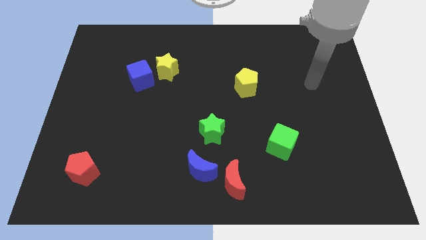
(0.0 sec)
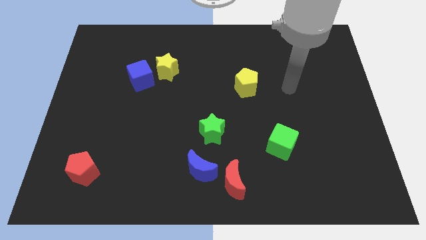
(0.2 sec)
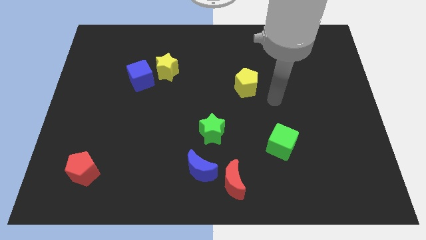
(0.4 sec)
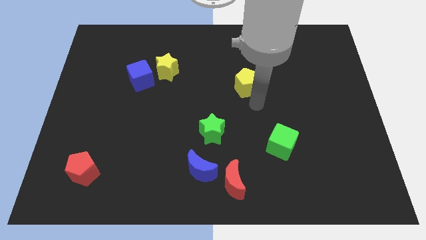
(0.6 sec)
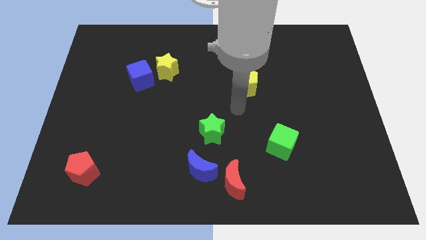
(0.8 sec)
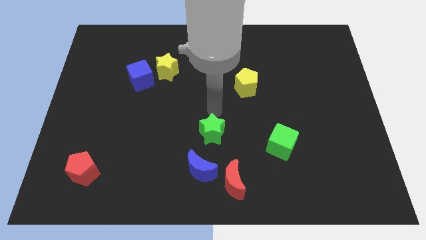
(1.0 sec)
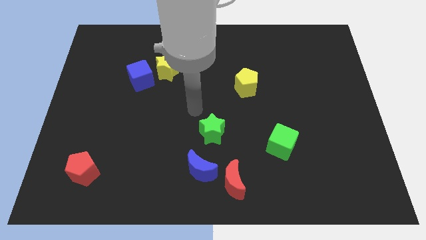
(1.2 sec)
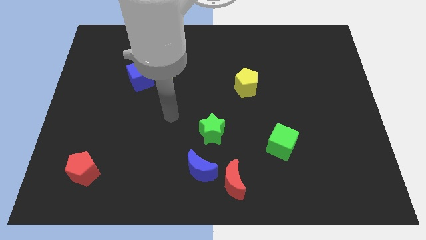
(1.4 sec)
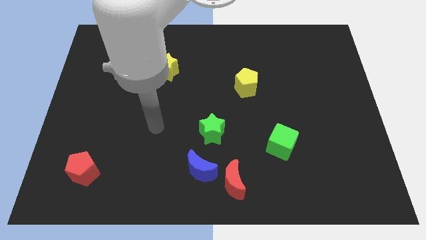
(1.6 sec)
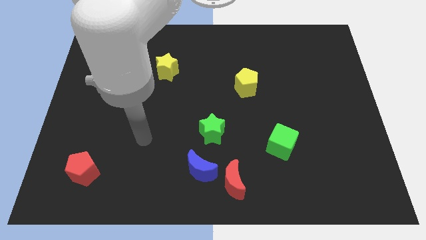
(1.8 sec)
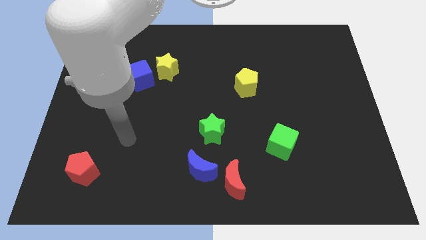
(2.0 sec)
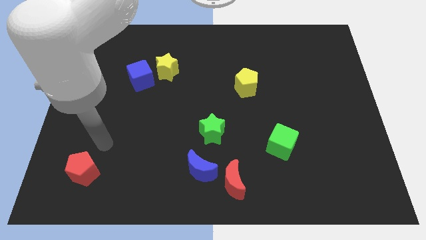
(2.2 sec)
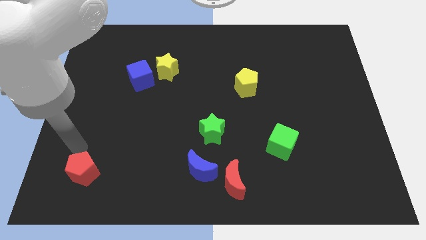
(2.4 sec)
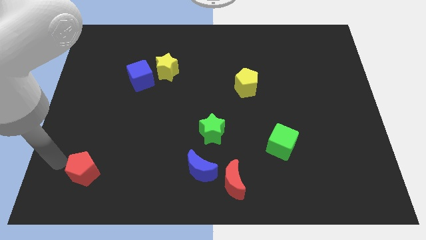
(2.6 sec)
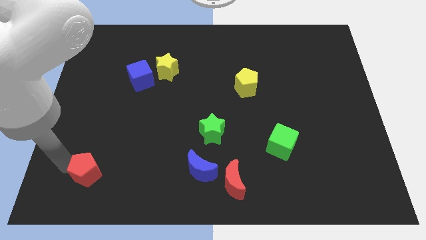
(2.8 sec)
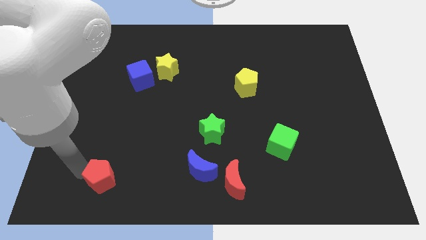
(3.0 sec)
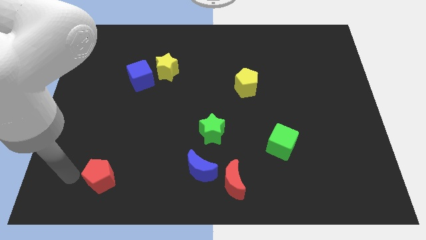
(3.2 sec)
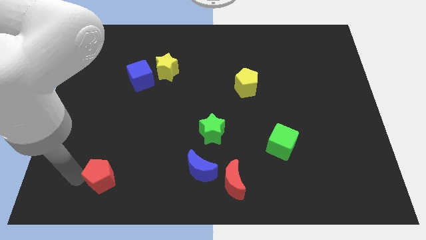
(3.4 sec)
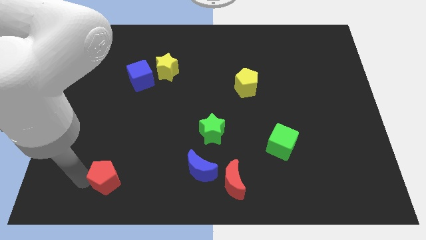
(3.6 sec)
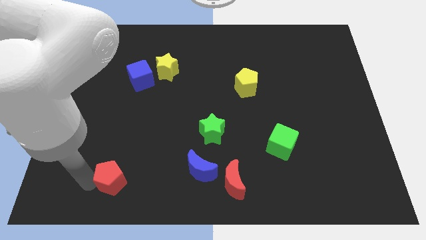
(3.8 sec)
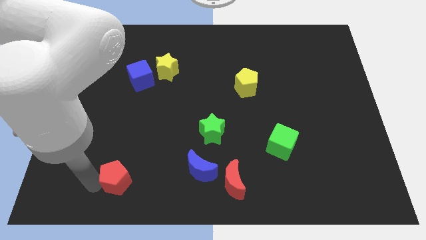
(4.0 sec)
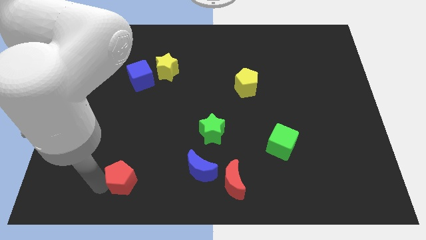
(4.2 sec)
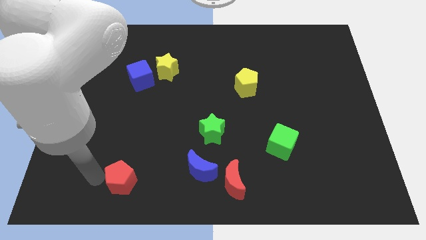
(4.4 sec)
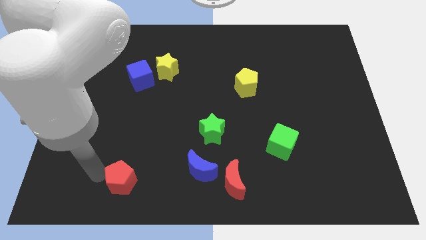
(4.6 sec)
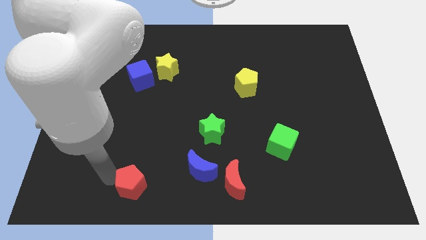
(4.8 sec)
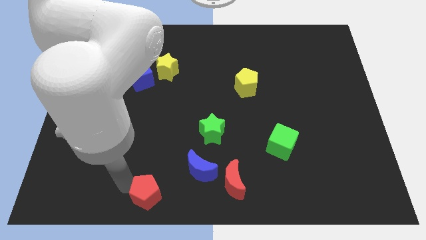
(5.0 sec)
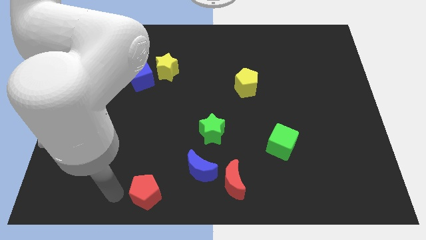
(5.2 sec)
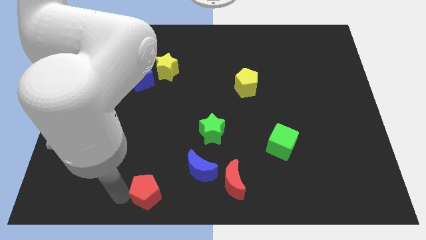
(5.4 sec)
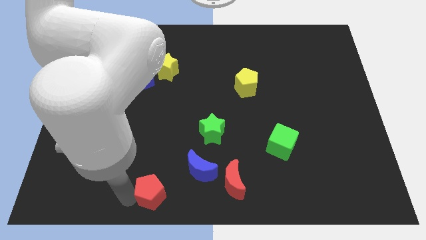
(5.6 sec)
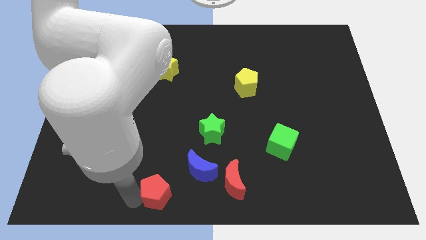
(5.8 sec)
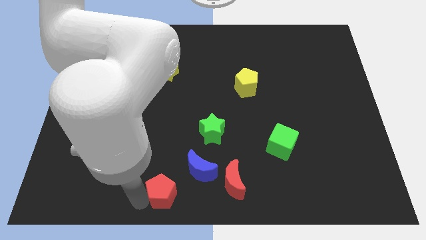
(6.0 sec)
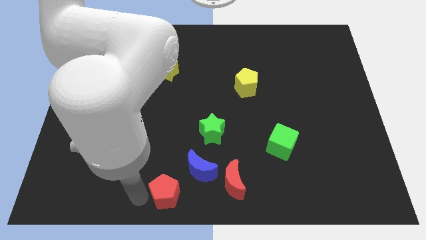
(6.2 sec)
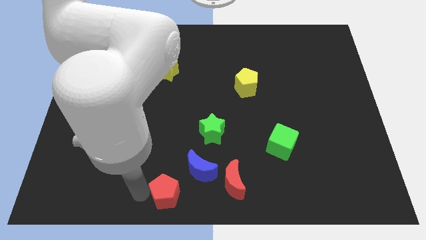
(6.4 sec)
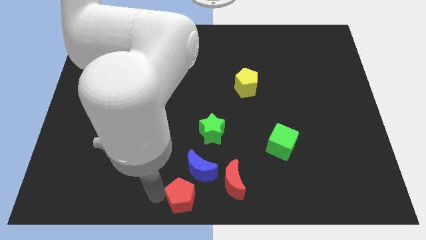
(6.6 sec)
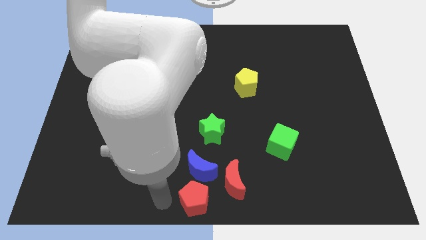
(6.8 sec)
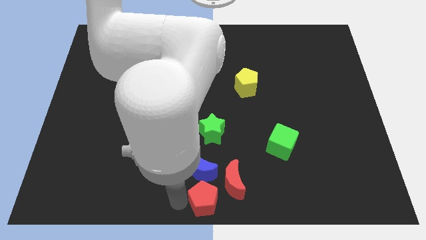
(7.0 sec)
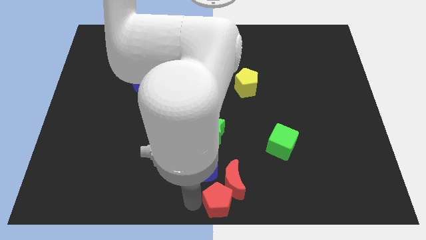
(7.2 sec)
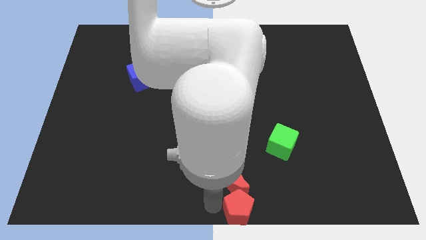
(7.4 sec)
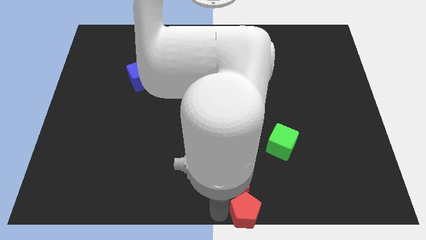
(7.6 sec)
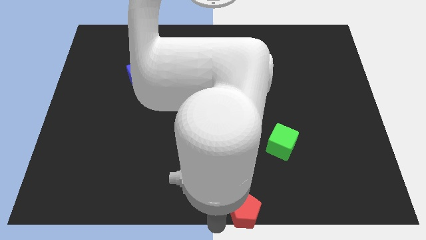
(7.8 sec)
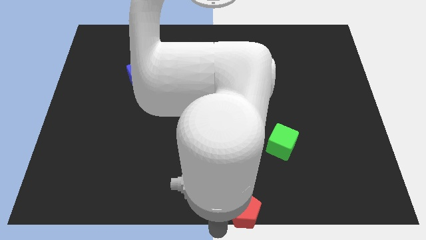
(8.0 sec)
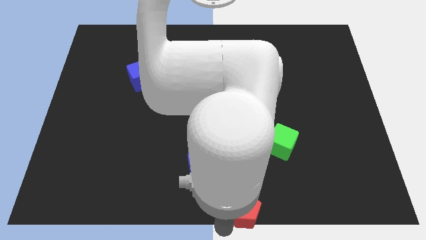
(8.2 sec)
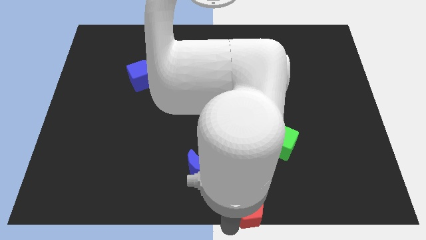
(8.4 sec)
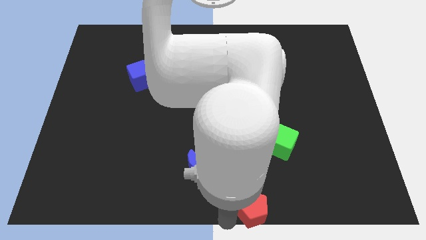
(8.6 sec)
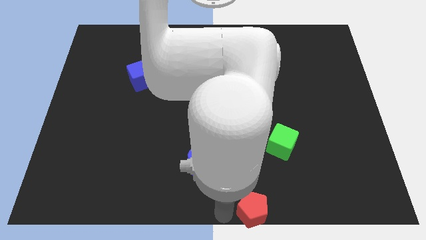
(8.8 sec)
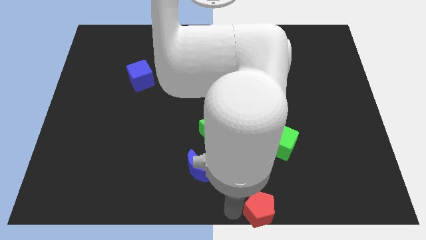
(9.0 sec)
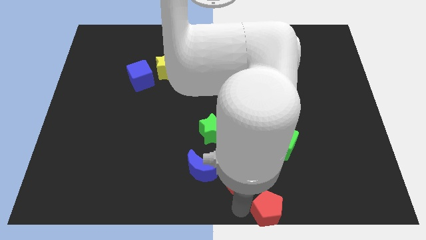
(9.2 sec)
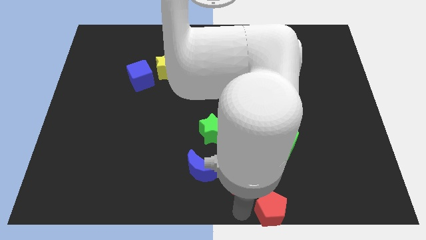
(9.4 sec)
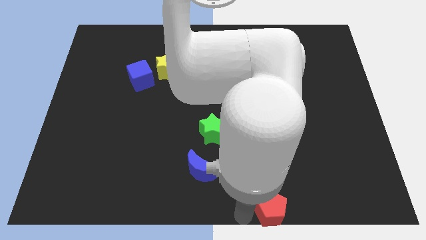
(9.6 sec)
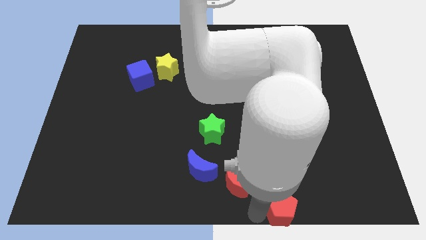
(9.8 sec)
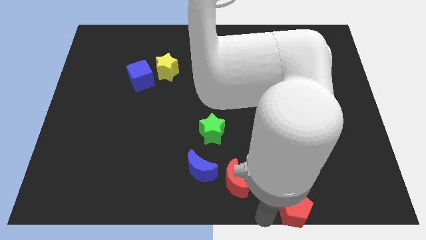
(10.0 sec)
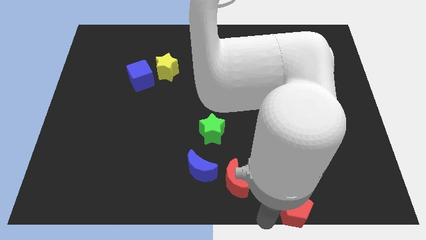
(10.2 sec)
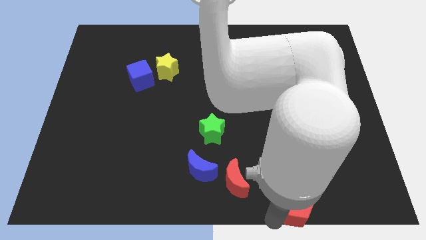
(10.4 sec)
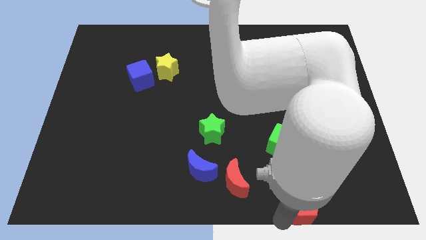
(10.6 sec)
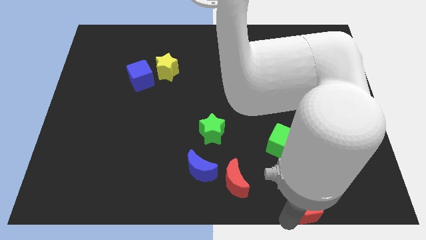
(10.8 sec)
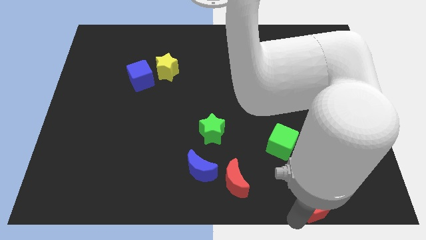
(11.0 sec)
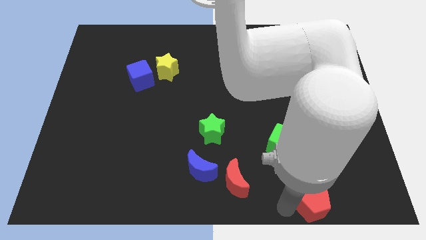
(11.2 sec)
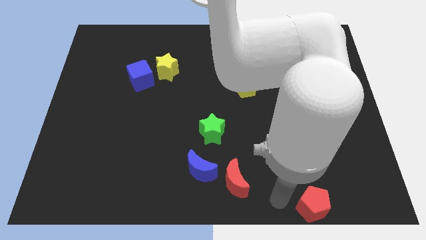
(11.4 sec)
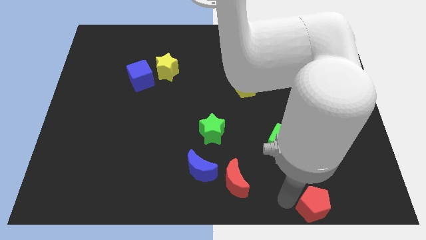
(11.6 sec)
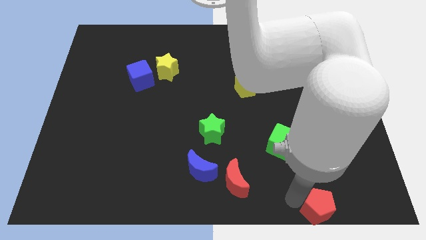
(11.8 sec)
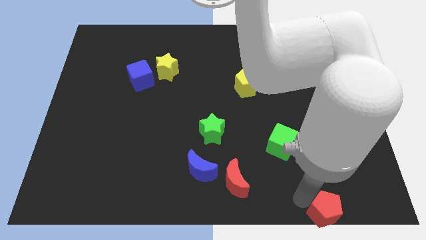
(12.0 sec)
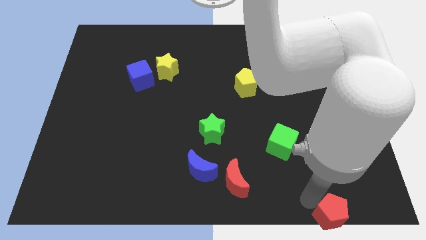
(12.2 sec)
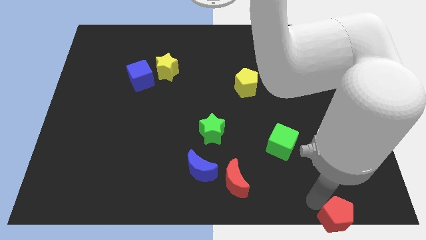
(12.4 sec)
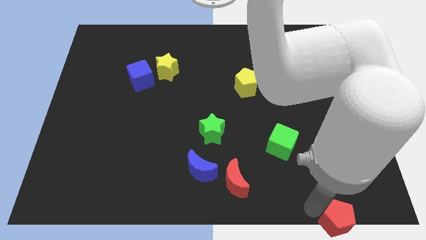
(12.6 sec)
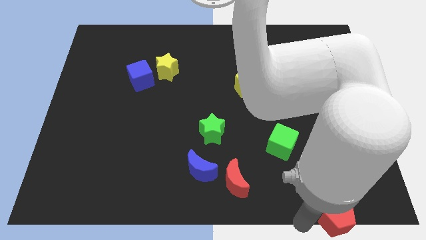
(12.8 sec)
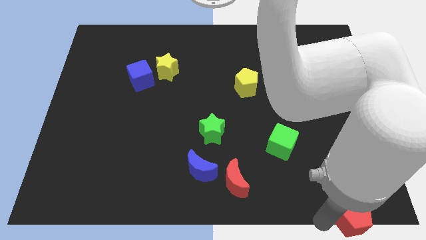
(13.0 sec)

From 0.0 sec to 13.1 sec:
push the red pentagon to the bottom right of the board

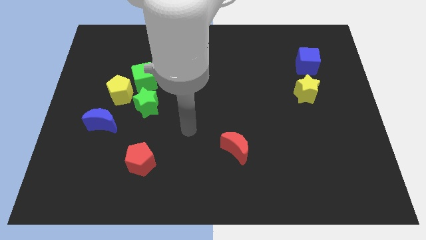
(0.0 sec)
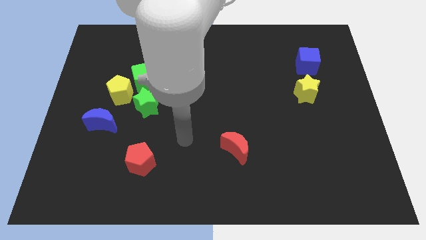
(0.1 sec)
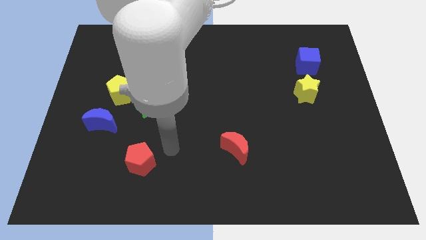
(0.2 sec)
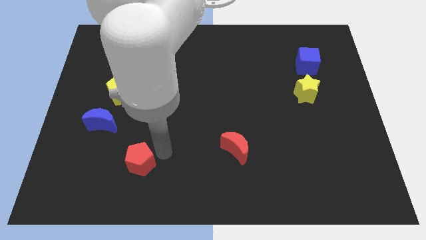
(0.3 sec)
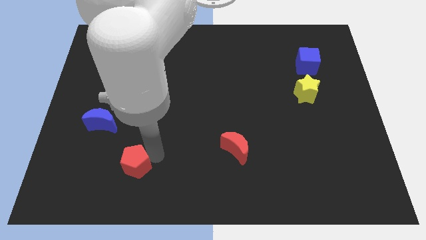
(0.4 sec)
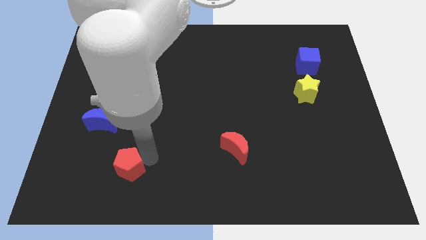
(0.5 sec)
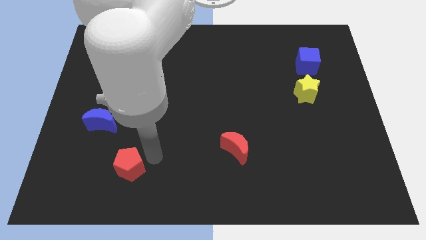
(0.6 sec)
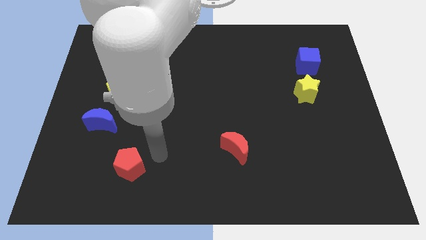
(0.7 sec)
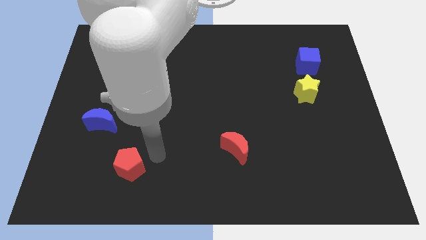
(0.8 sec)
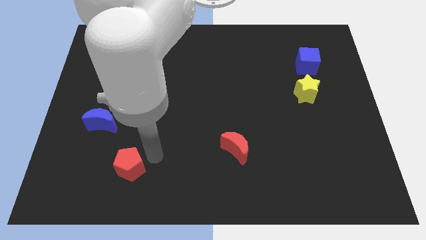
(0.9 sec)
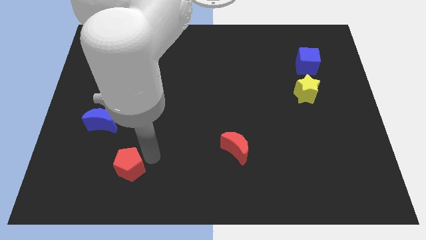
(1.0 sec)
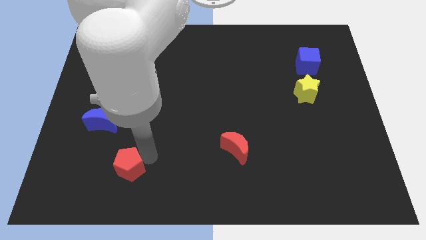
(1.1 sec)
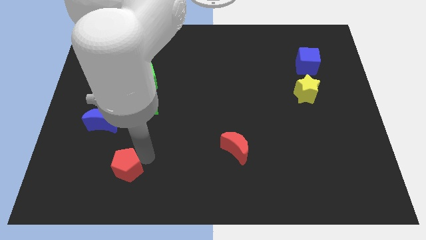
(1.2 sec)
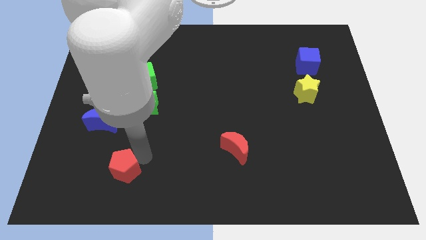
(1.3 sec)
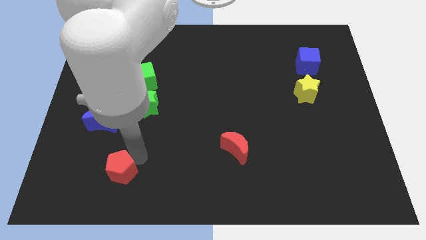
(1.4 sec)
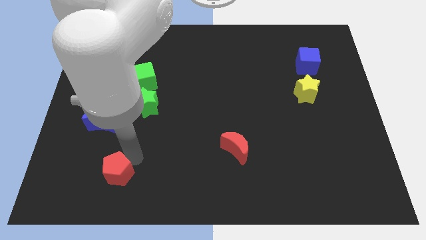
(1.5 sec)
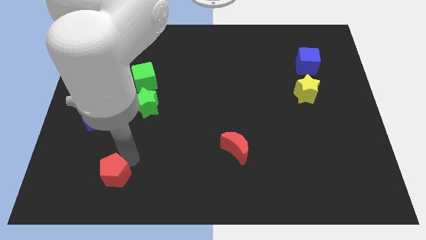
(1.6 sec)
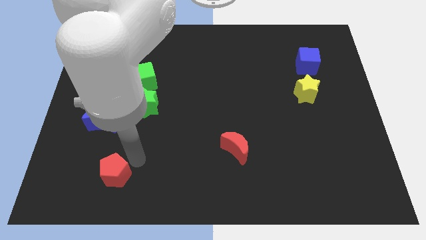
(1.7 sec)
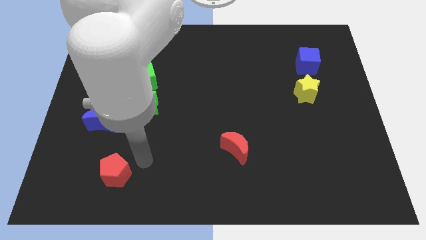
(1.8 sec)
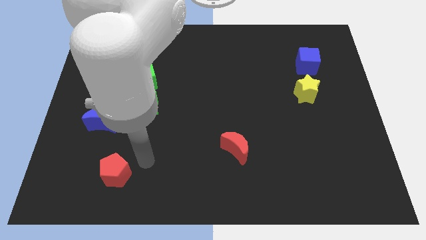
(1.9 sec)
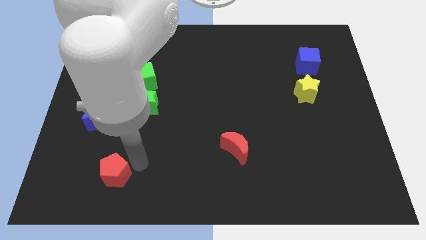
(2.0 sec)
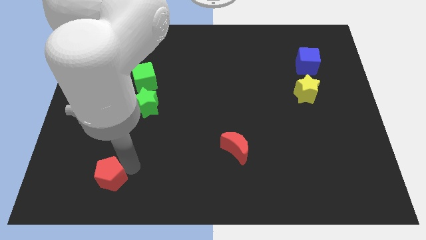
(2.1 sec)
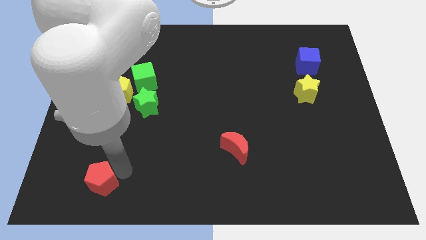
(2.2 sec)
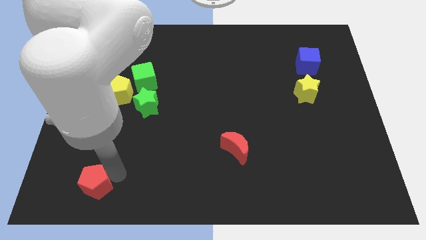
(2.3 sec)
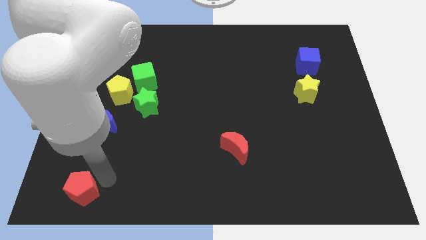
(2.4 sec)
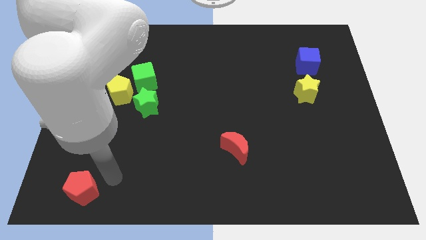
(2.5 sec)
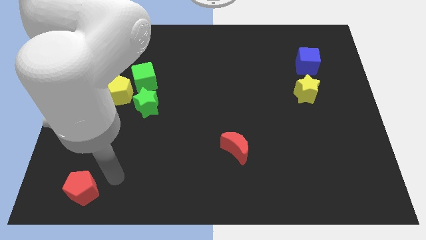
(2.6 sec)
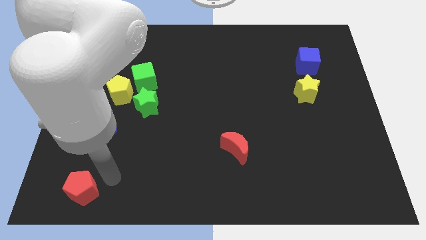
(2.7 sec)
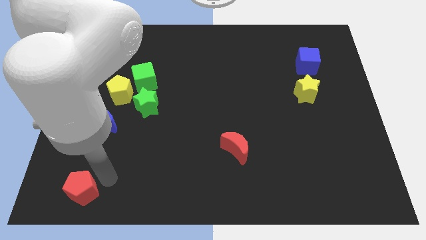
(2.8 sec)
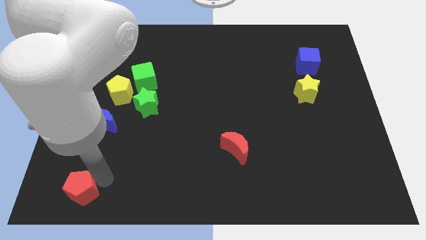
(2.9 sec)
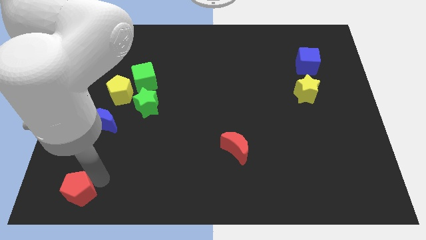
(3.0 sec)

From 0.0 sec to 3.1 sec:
put the red pentagon to the bottom left of the board
